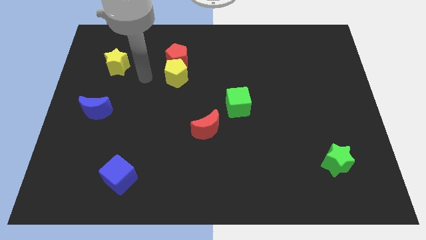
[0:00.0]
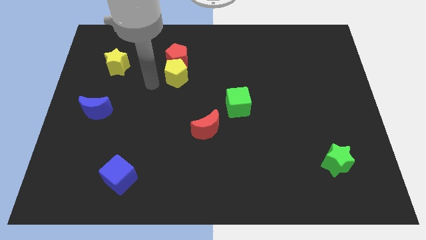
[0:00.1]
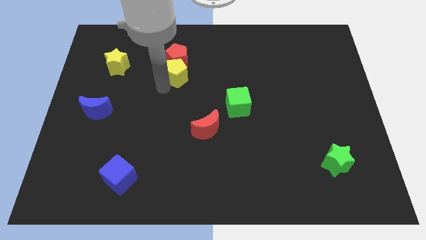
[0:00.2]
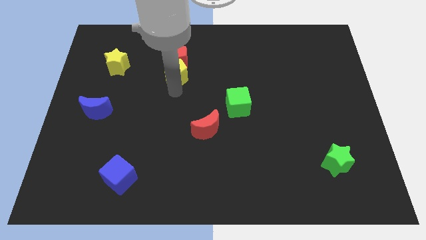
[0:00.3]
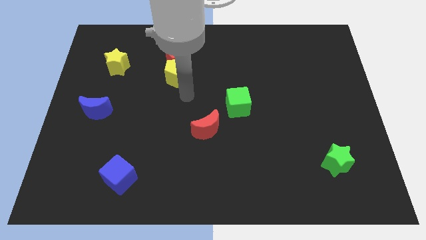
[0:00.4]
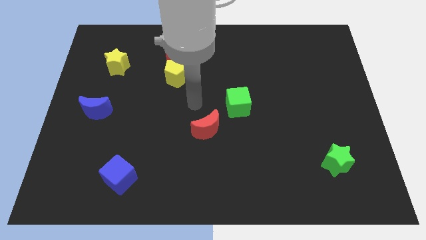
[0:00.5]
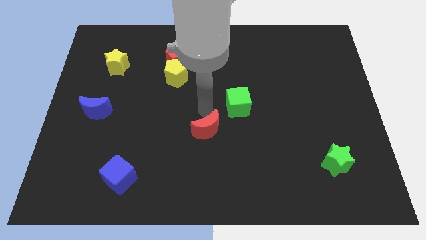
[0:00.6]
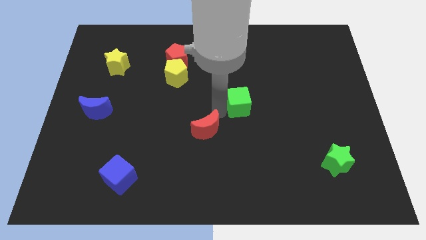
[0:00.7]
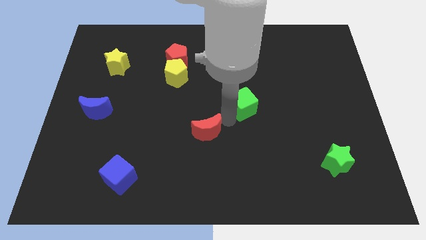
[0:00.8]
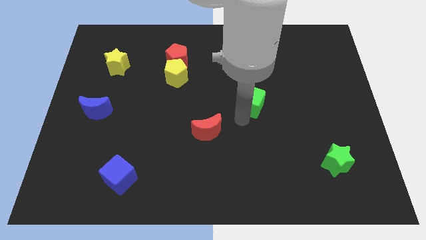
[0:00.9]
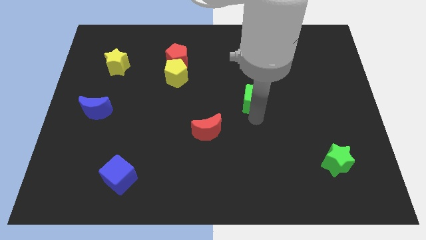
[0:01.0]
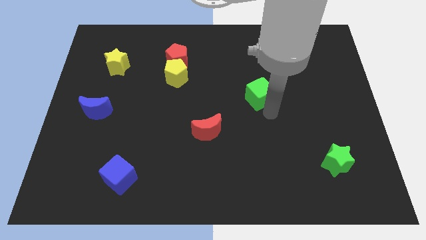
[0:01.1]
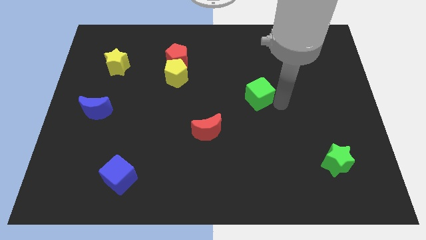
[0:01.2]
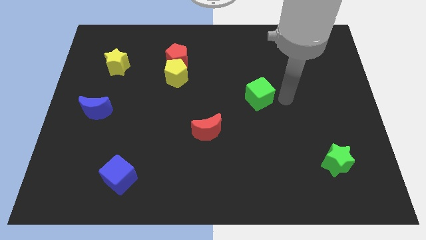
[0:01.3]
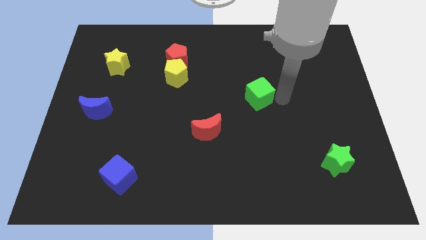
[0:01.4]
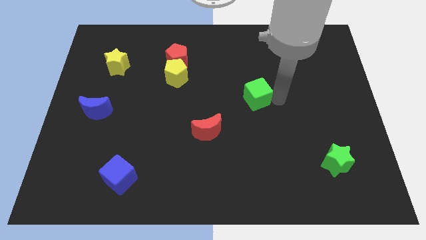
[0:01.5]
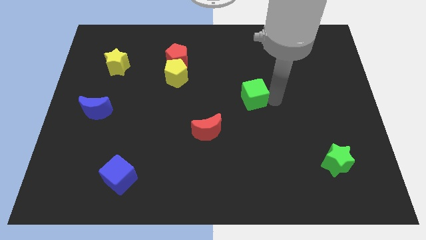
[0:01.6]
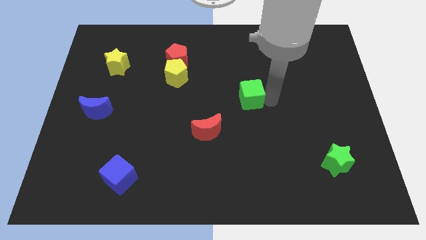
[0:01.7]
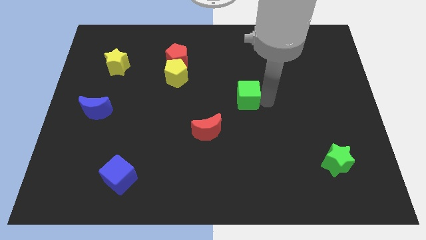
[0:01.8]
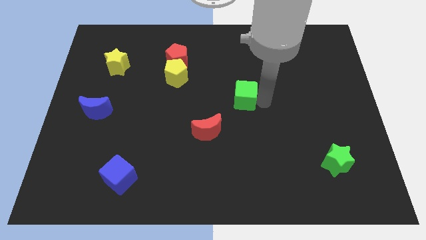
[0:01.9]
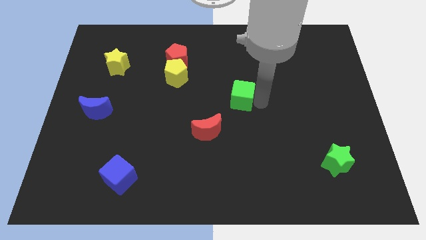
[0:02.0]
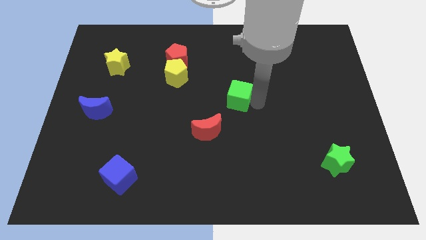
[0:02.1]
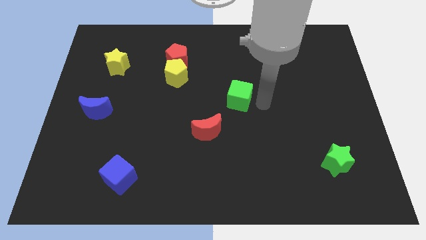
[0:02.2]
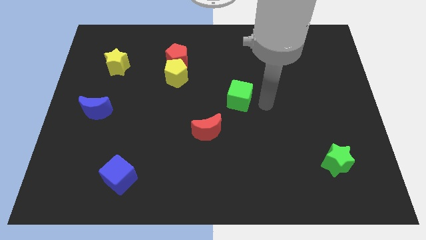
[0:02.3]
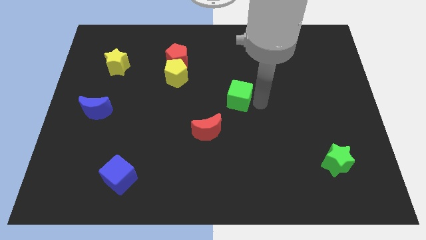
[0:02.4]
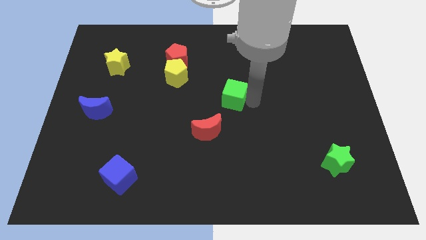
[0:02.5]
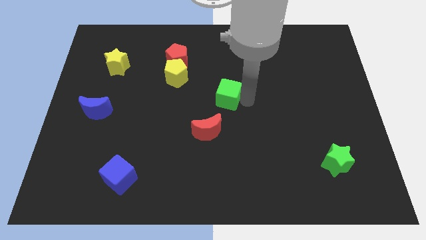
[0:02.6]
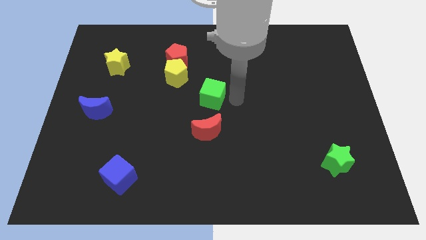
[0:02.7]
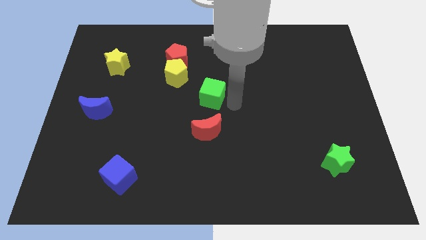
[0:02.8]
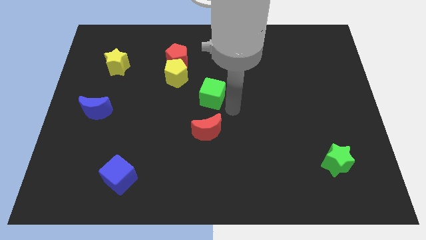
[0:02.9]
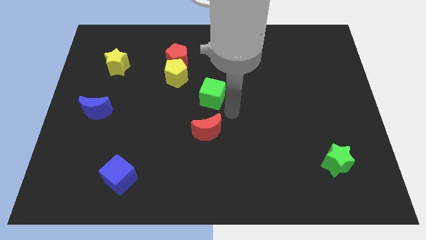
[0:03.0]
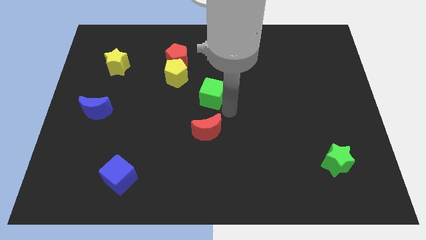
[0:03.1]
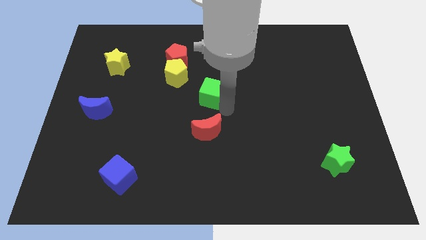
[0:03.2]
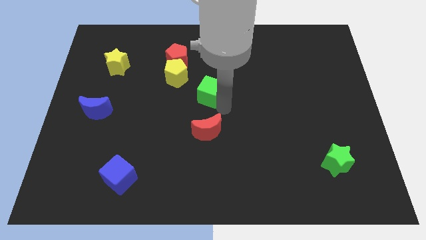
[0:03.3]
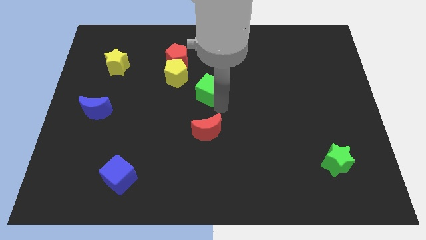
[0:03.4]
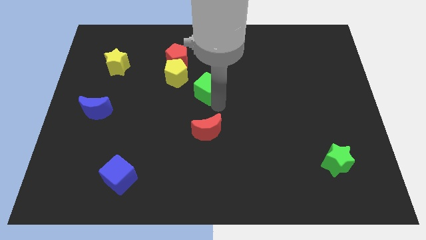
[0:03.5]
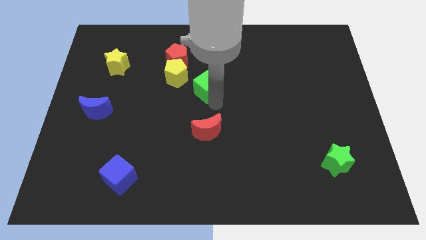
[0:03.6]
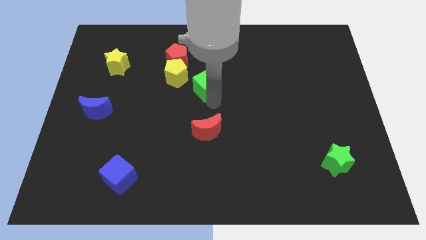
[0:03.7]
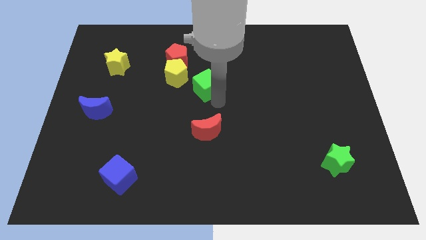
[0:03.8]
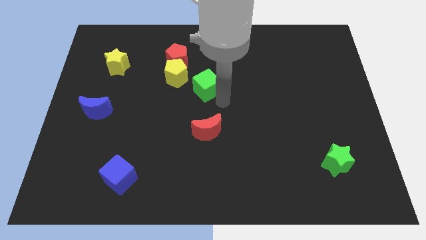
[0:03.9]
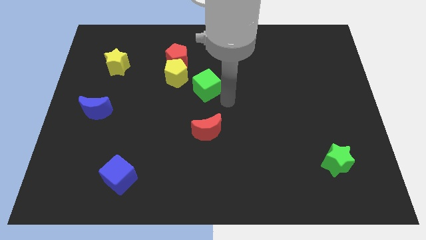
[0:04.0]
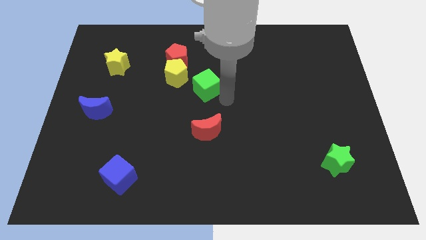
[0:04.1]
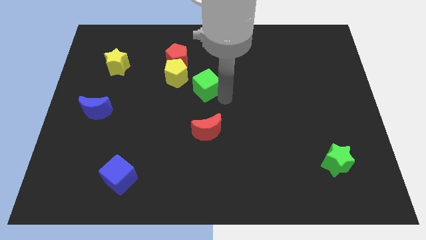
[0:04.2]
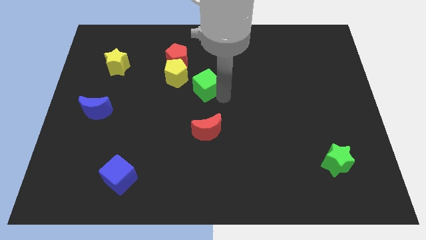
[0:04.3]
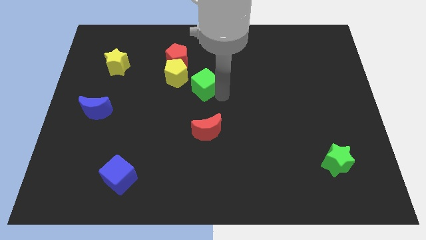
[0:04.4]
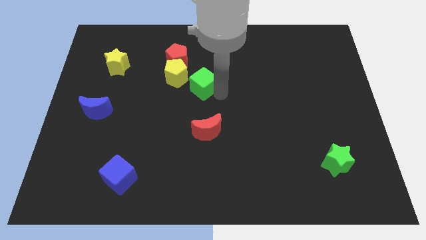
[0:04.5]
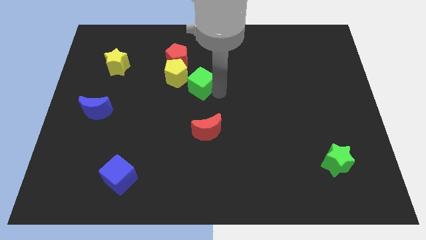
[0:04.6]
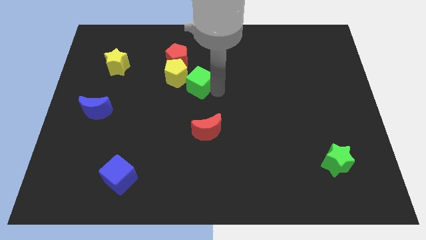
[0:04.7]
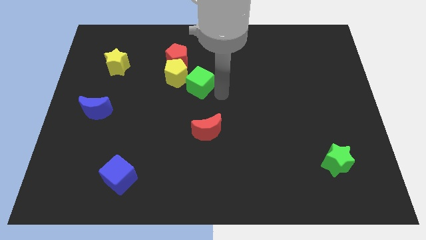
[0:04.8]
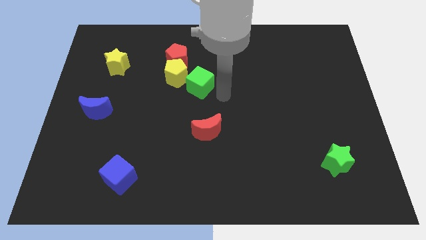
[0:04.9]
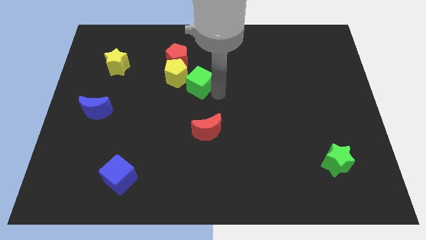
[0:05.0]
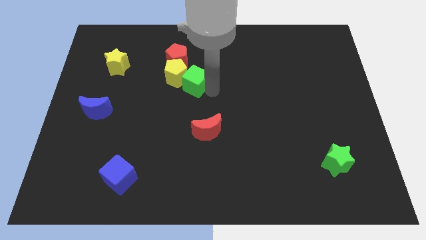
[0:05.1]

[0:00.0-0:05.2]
slide the green cube close to the yellow pentagon

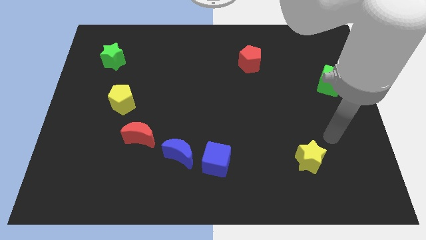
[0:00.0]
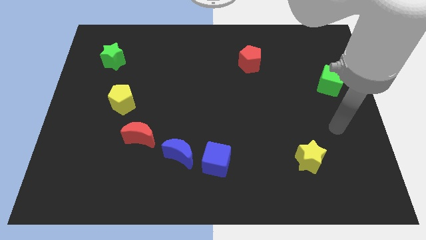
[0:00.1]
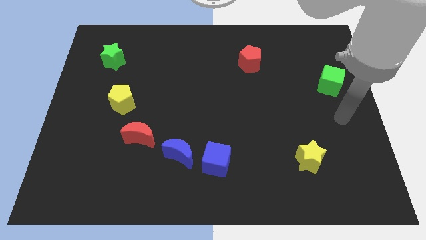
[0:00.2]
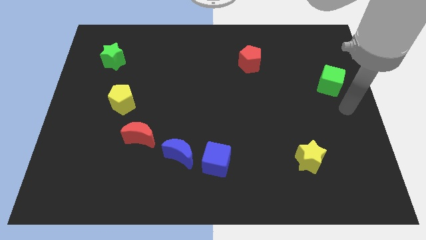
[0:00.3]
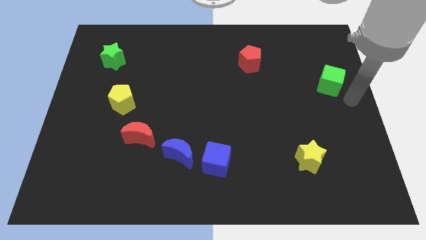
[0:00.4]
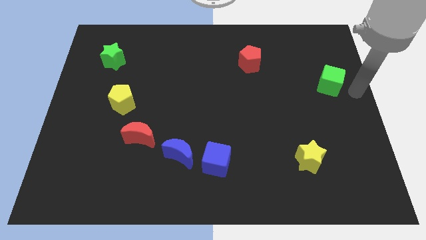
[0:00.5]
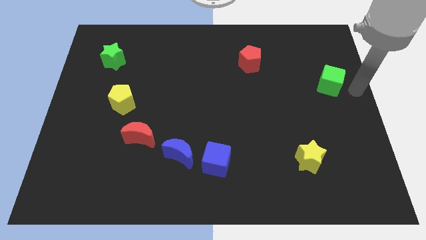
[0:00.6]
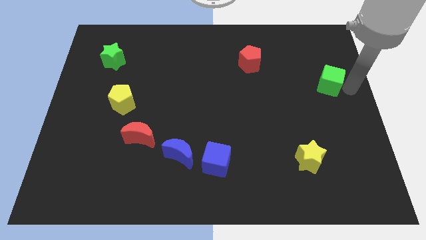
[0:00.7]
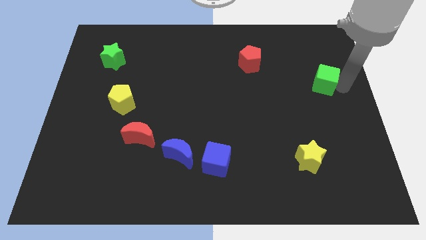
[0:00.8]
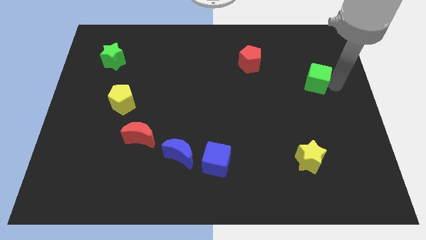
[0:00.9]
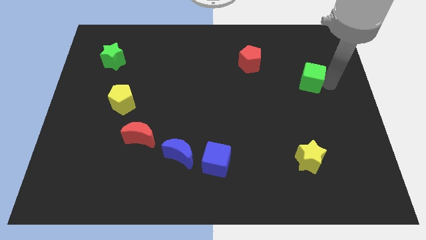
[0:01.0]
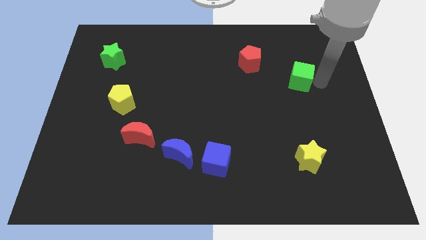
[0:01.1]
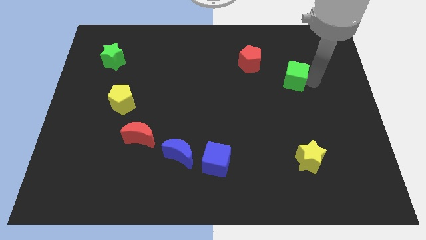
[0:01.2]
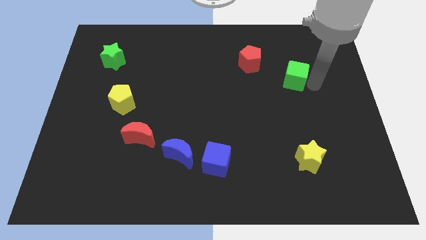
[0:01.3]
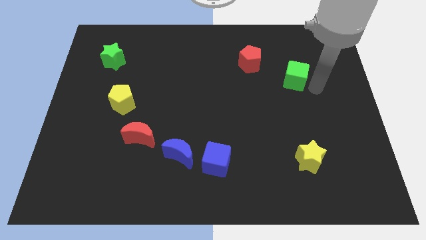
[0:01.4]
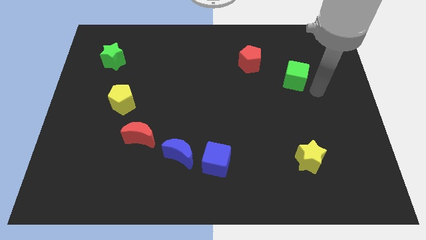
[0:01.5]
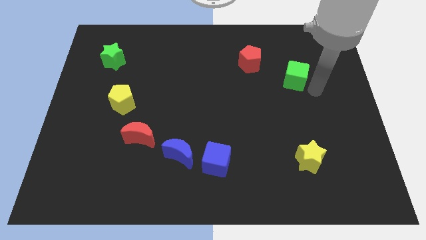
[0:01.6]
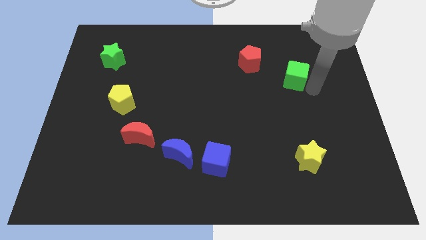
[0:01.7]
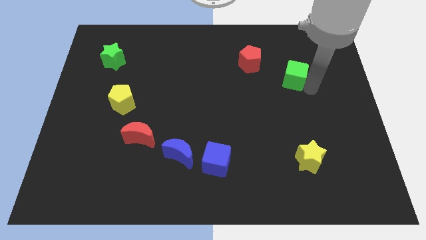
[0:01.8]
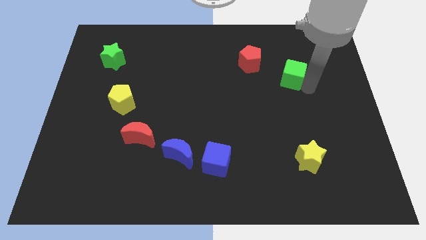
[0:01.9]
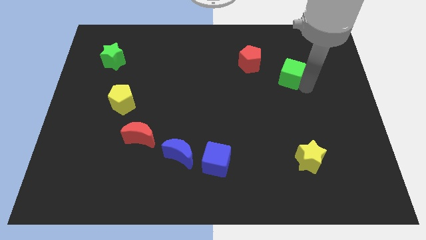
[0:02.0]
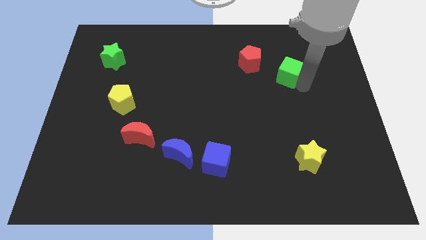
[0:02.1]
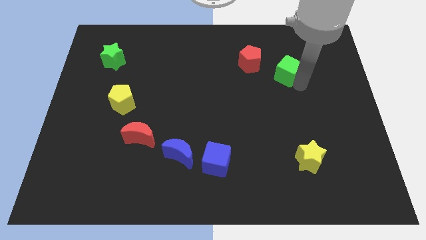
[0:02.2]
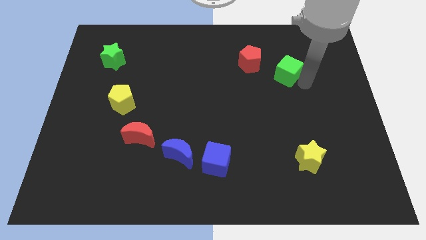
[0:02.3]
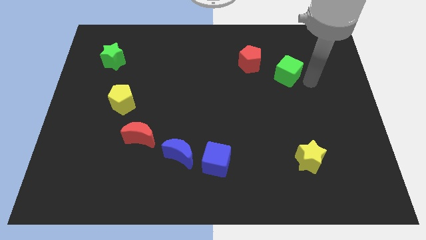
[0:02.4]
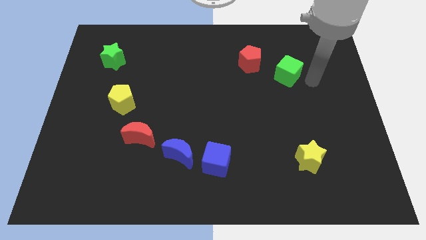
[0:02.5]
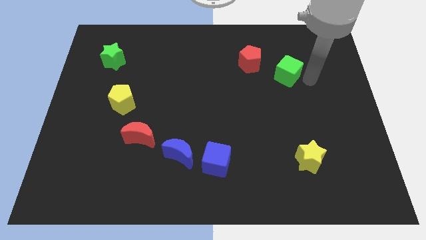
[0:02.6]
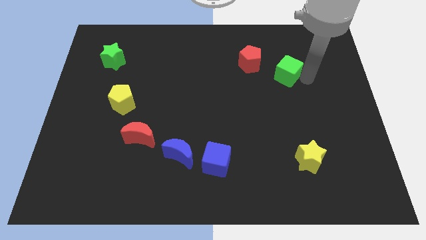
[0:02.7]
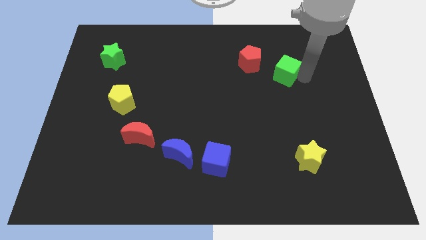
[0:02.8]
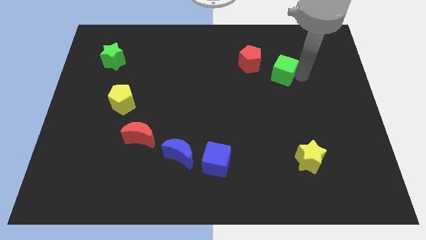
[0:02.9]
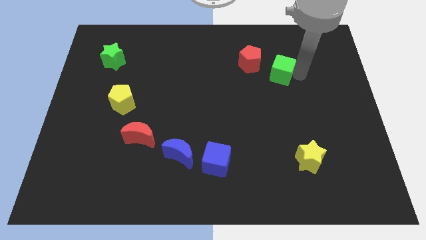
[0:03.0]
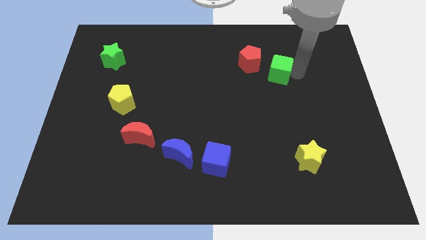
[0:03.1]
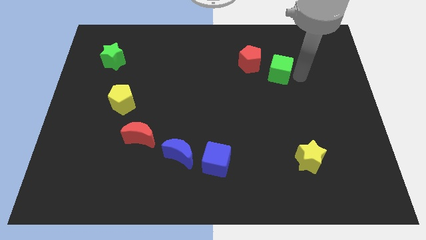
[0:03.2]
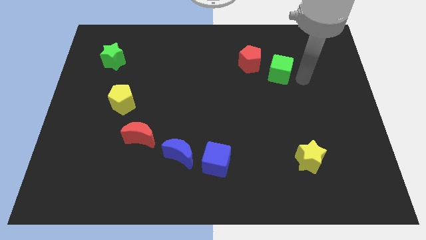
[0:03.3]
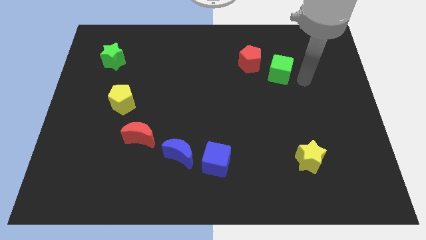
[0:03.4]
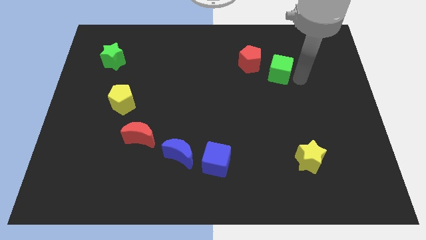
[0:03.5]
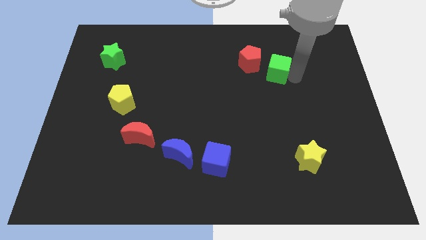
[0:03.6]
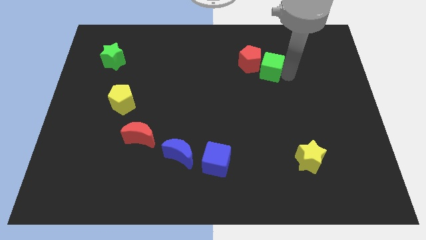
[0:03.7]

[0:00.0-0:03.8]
slide the green cube to the red pentagon
